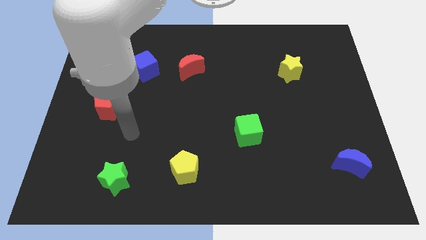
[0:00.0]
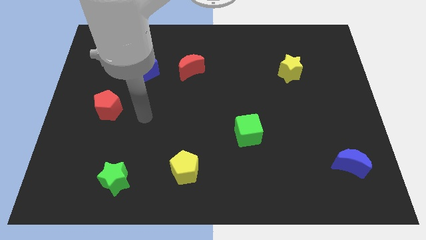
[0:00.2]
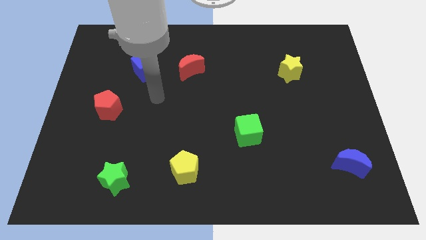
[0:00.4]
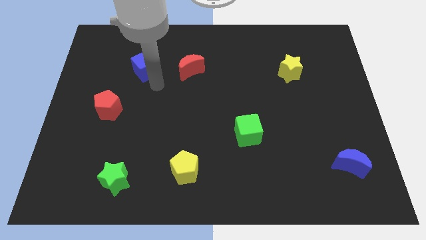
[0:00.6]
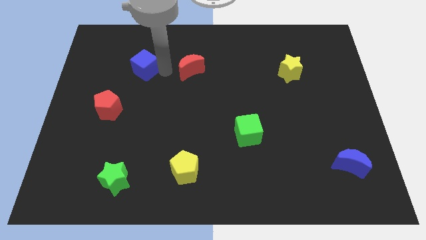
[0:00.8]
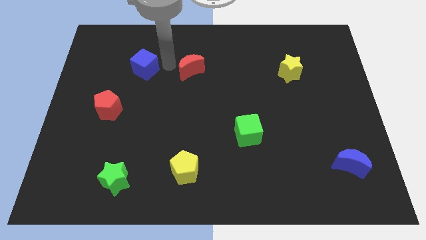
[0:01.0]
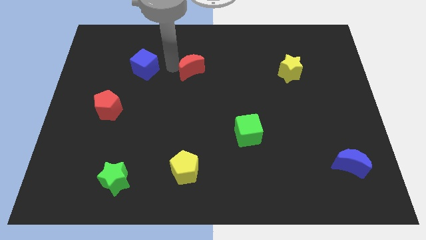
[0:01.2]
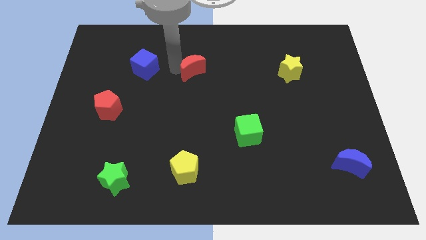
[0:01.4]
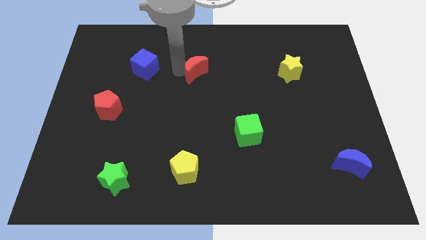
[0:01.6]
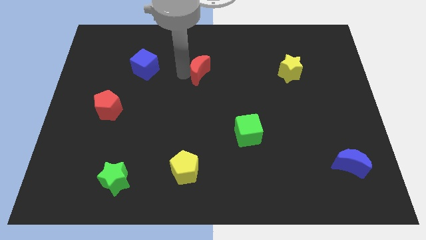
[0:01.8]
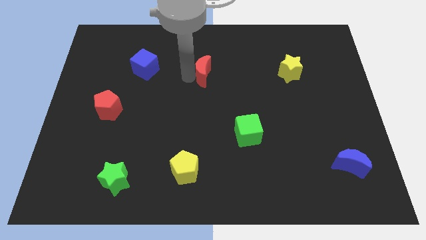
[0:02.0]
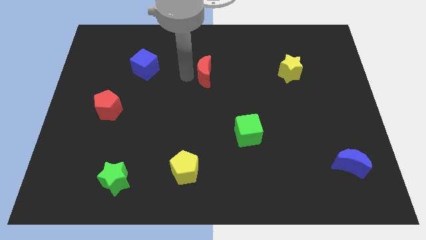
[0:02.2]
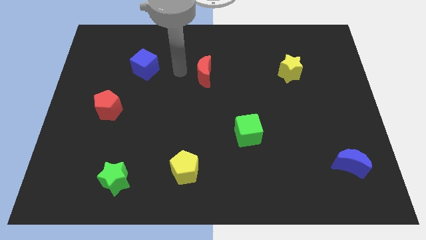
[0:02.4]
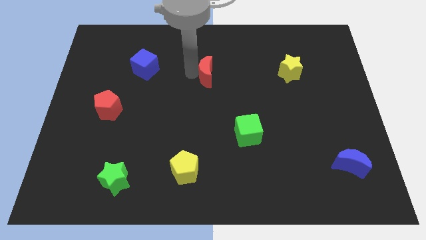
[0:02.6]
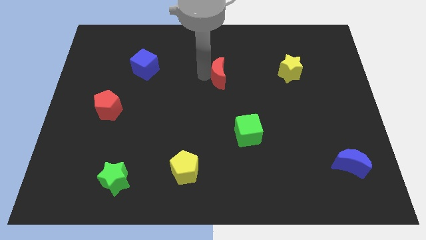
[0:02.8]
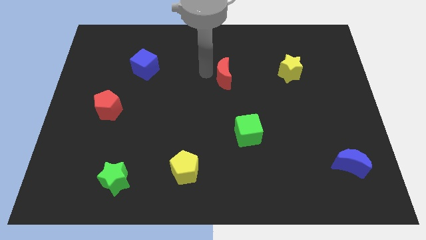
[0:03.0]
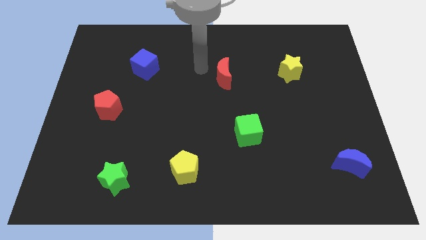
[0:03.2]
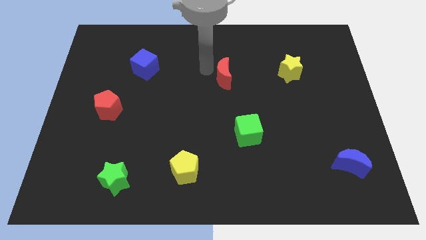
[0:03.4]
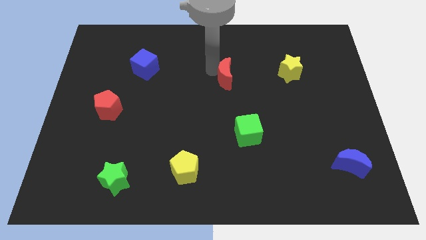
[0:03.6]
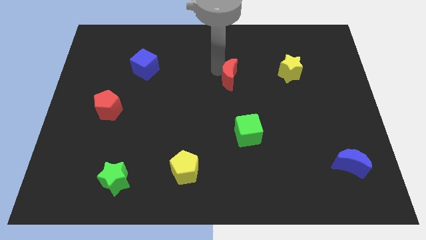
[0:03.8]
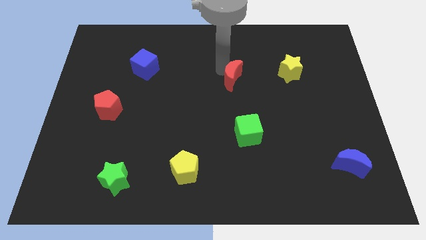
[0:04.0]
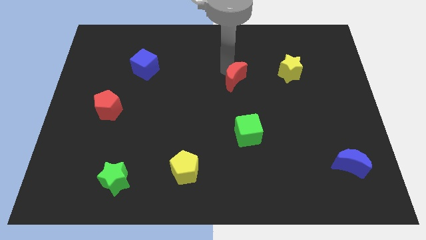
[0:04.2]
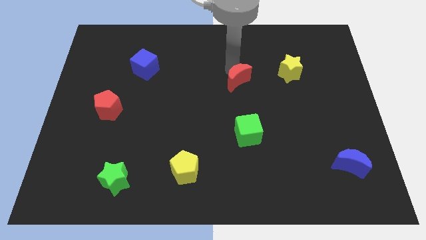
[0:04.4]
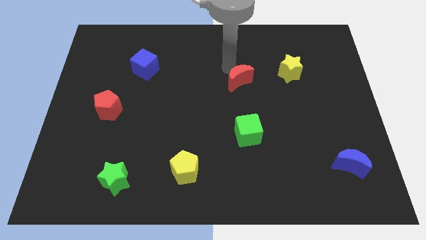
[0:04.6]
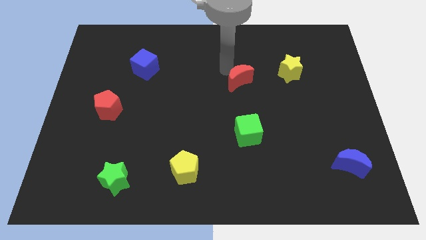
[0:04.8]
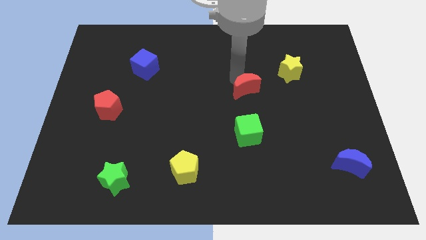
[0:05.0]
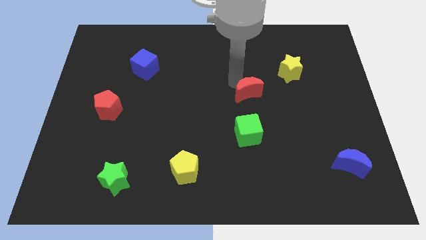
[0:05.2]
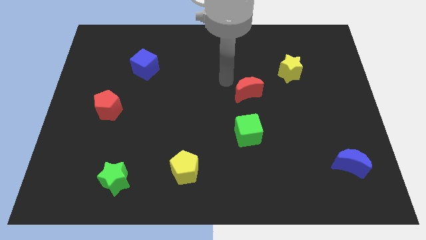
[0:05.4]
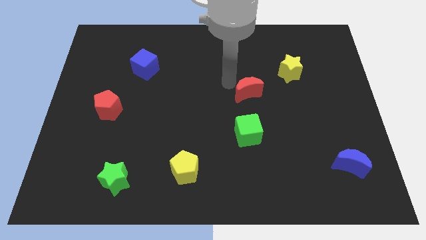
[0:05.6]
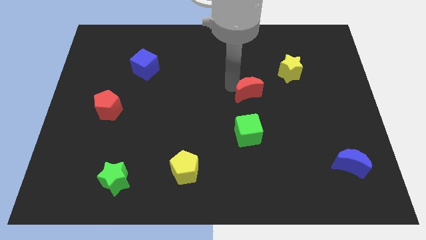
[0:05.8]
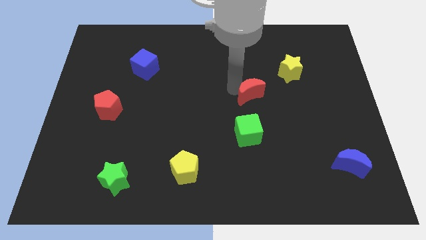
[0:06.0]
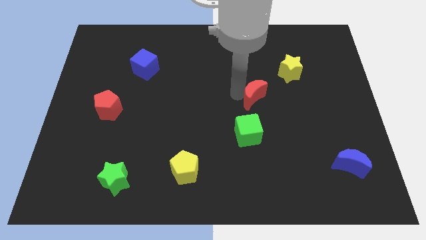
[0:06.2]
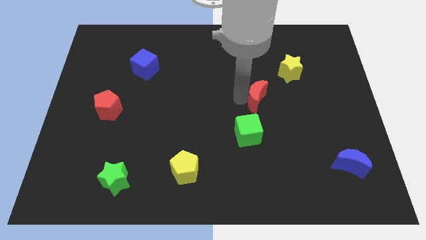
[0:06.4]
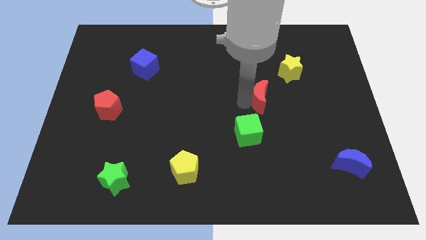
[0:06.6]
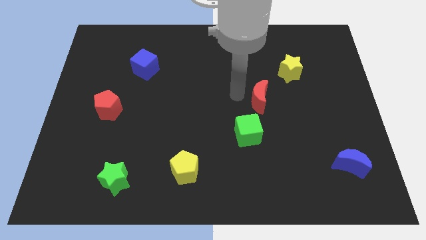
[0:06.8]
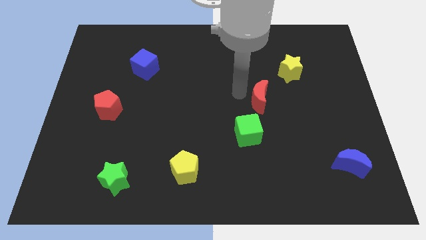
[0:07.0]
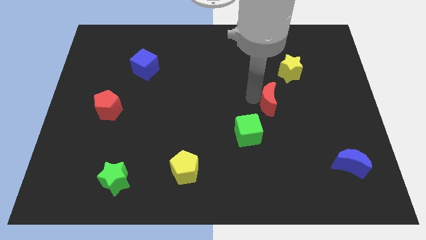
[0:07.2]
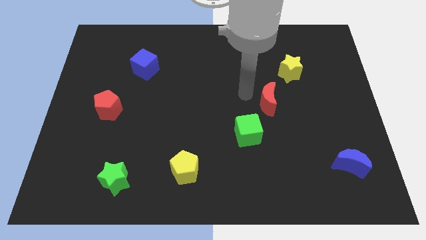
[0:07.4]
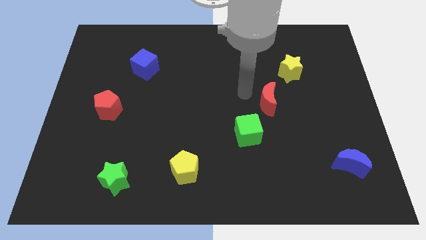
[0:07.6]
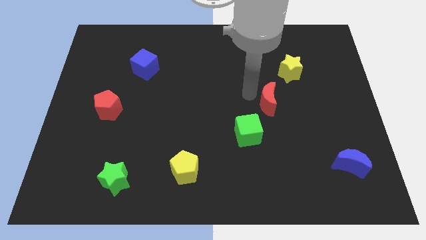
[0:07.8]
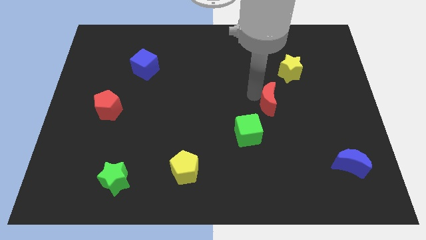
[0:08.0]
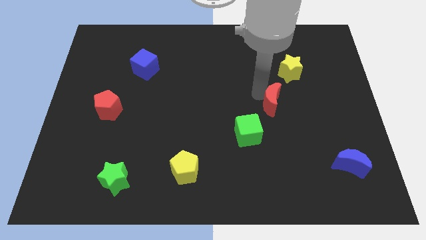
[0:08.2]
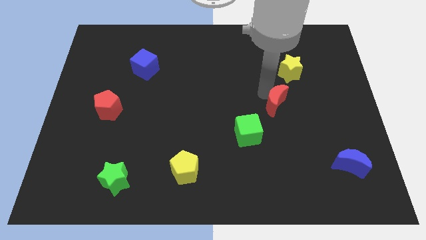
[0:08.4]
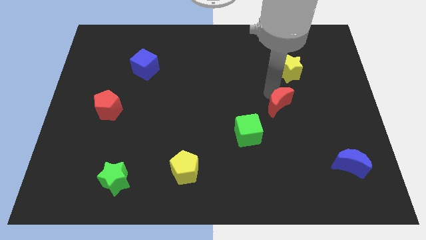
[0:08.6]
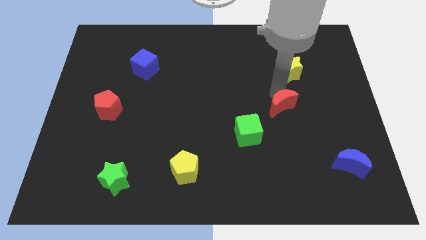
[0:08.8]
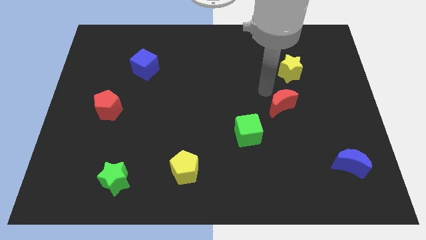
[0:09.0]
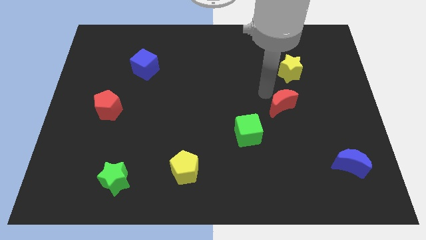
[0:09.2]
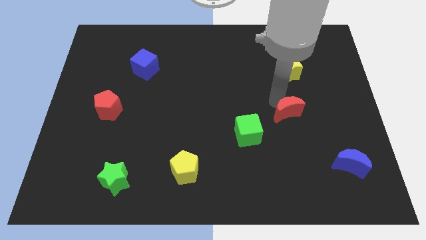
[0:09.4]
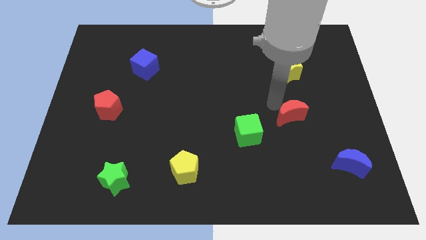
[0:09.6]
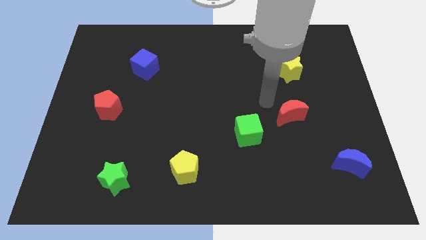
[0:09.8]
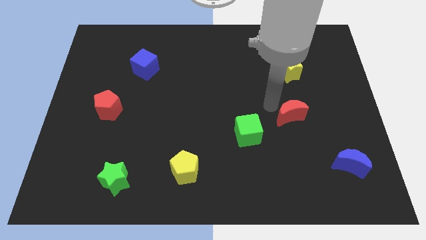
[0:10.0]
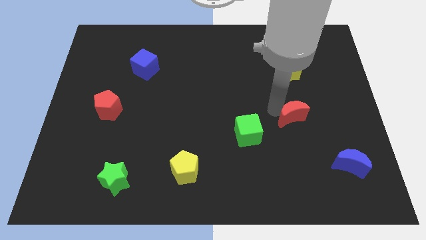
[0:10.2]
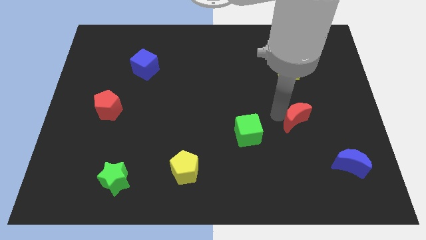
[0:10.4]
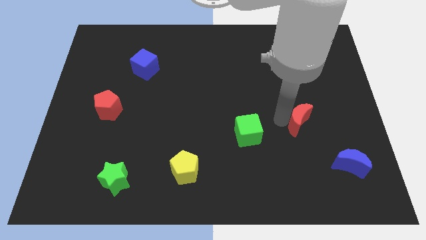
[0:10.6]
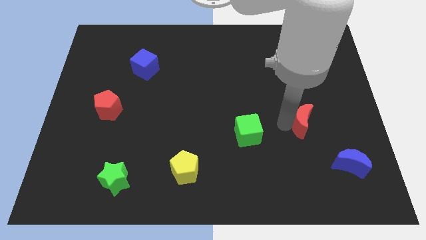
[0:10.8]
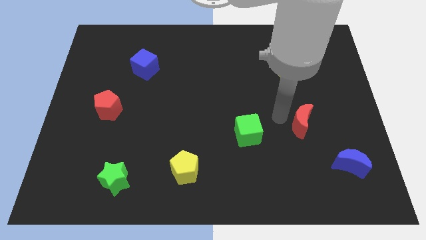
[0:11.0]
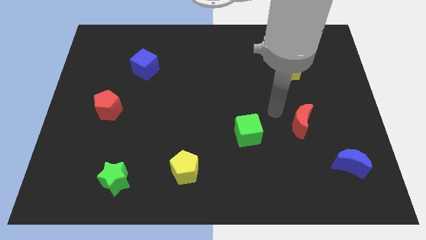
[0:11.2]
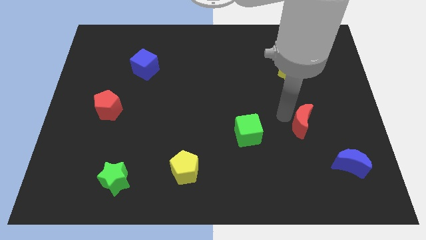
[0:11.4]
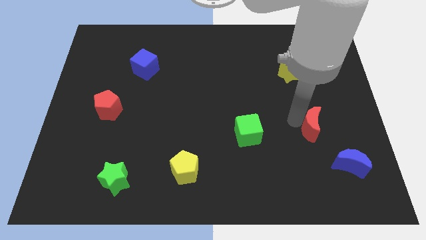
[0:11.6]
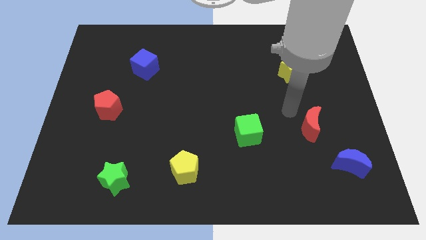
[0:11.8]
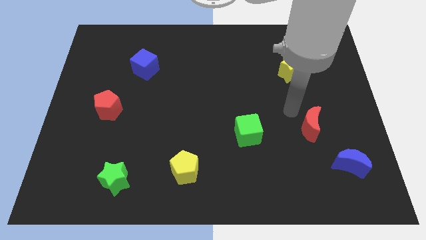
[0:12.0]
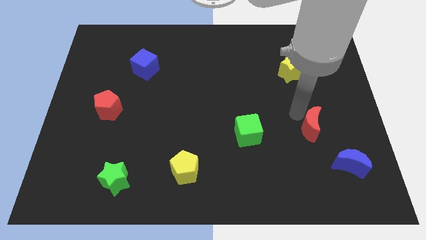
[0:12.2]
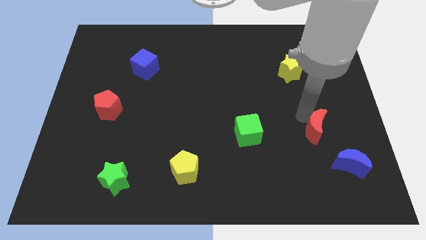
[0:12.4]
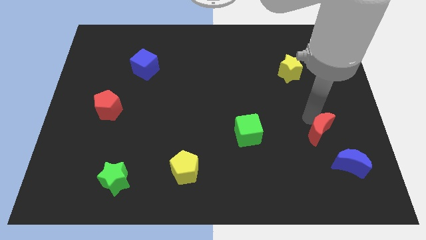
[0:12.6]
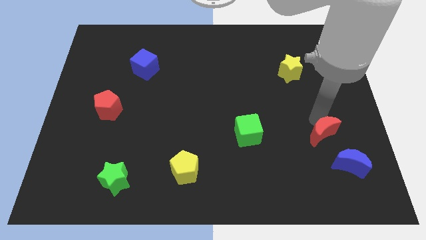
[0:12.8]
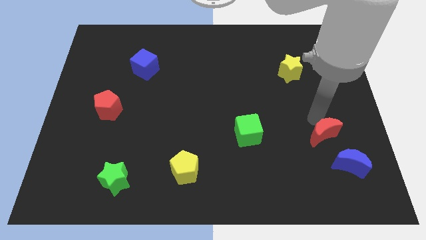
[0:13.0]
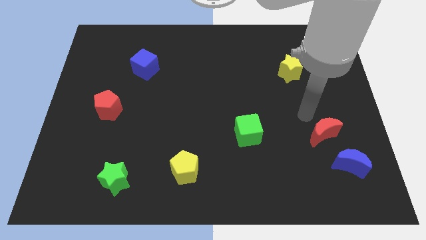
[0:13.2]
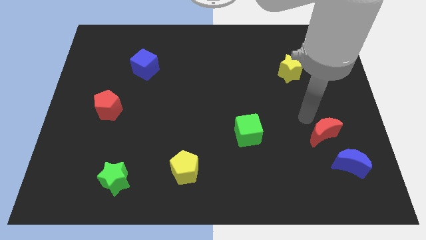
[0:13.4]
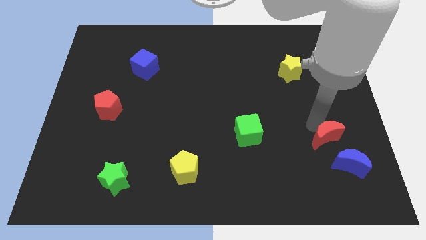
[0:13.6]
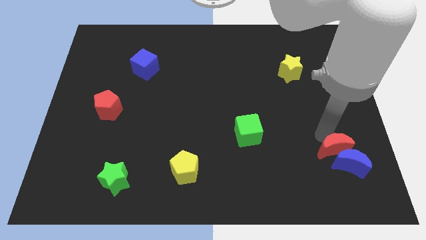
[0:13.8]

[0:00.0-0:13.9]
put the red moon to the blue moon
